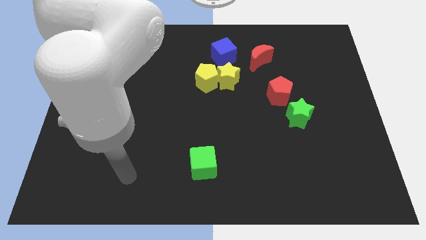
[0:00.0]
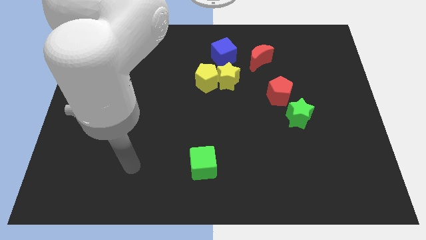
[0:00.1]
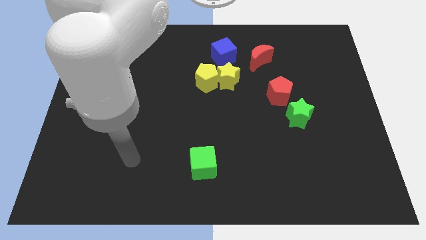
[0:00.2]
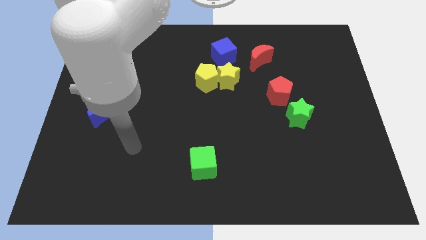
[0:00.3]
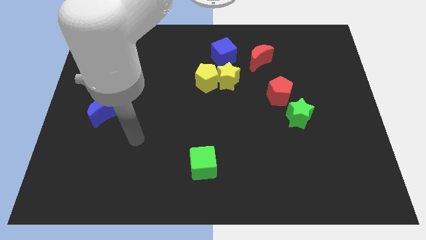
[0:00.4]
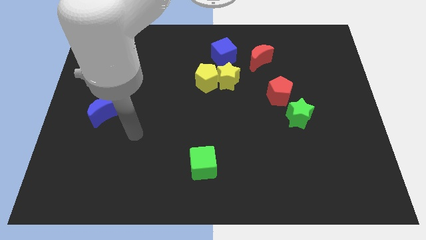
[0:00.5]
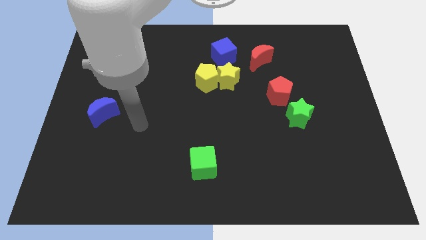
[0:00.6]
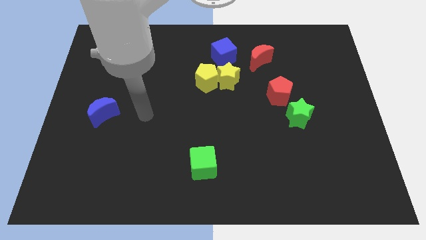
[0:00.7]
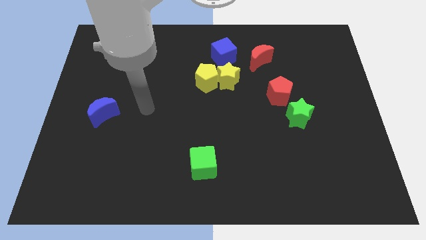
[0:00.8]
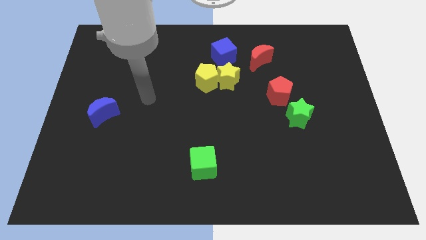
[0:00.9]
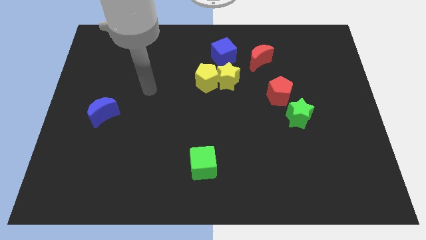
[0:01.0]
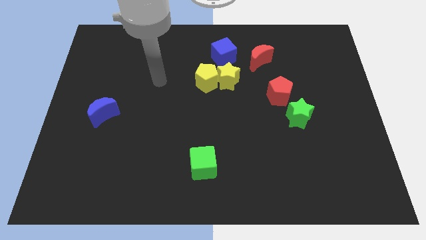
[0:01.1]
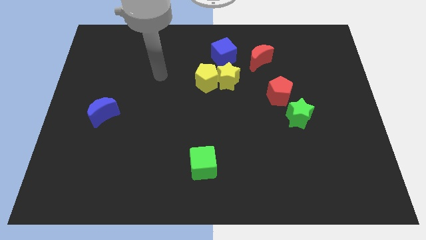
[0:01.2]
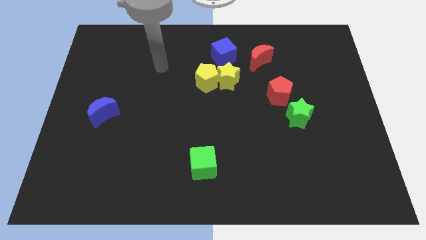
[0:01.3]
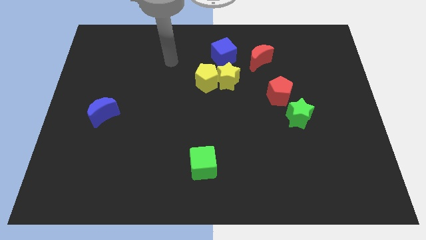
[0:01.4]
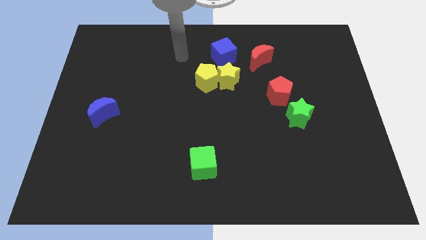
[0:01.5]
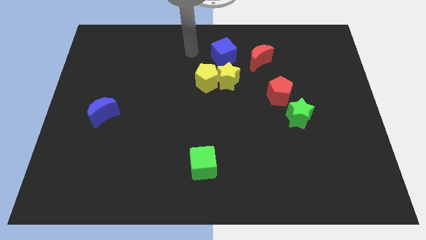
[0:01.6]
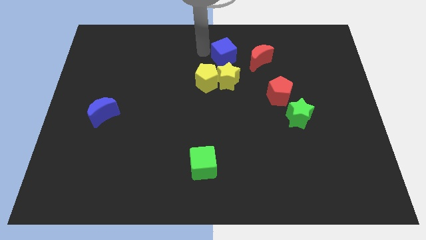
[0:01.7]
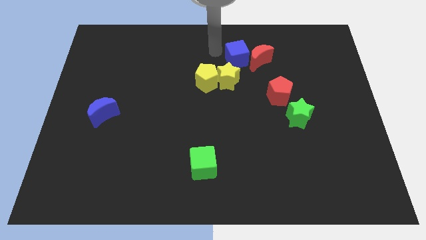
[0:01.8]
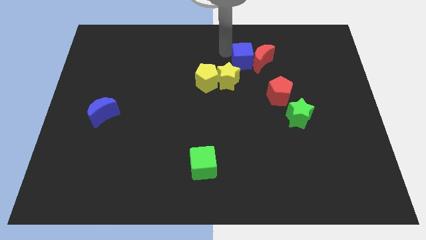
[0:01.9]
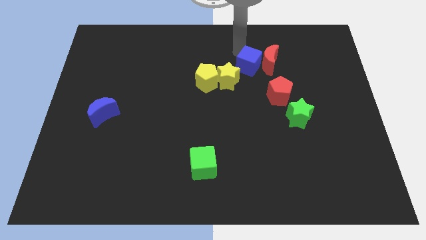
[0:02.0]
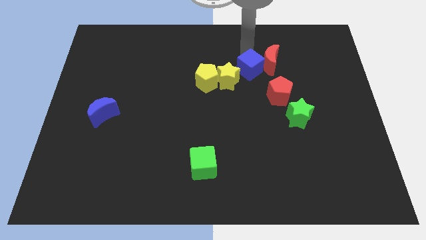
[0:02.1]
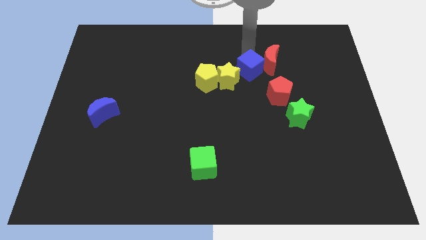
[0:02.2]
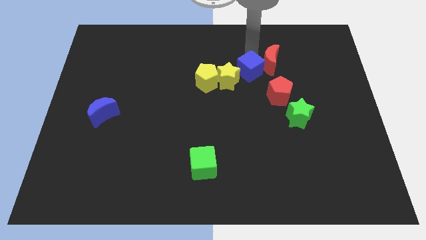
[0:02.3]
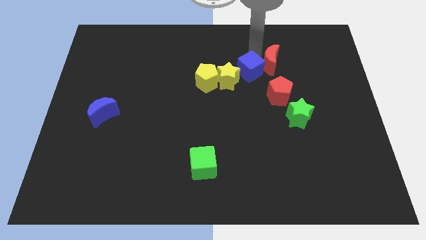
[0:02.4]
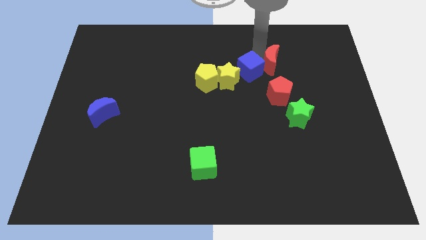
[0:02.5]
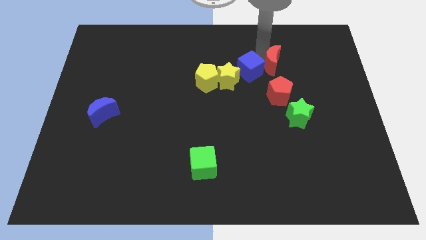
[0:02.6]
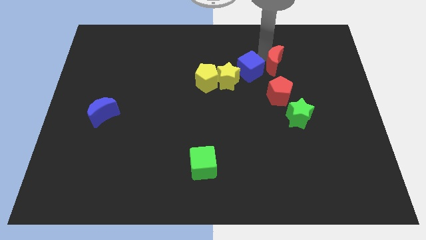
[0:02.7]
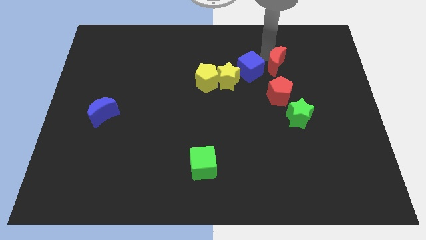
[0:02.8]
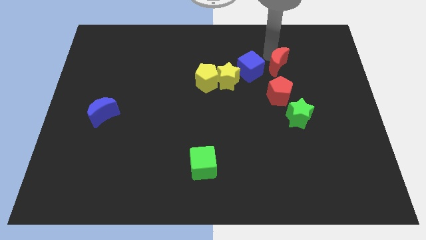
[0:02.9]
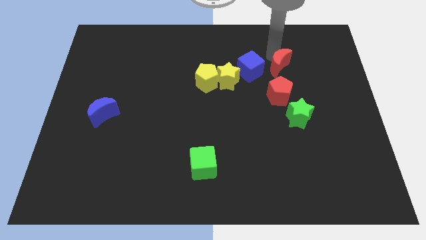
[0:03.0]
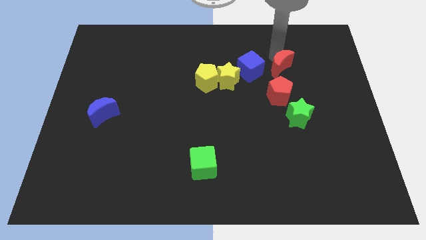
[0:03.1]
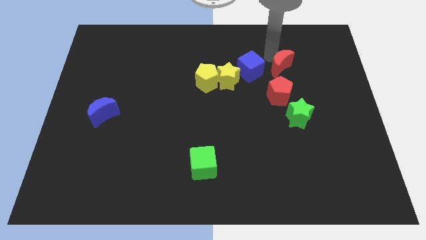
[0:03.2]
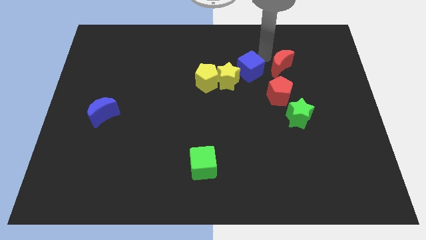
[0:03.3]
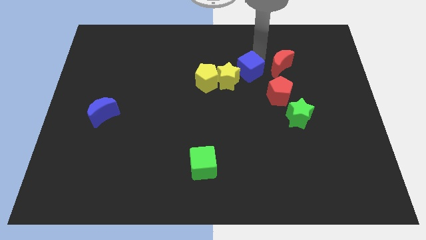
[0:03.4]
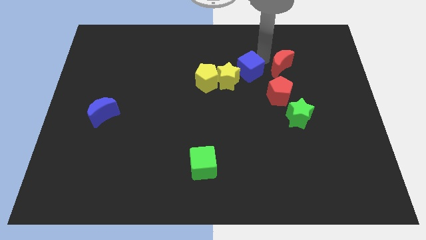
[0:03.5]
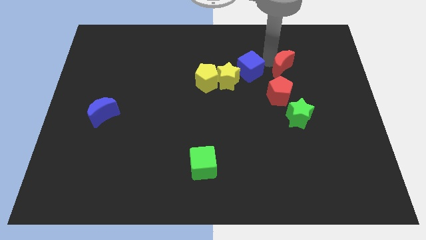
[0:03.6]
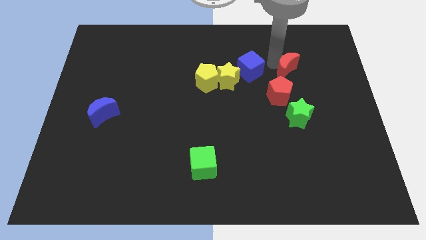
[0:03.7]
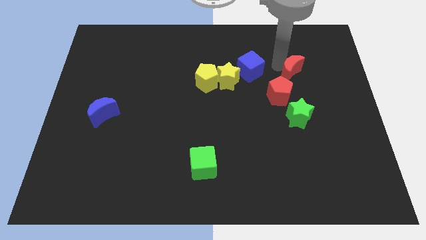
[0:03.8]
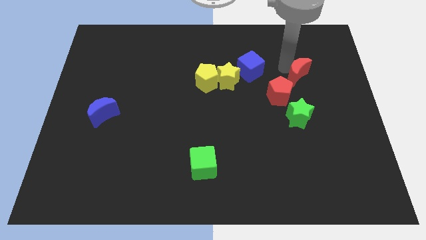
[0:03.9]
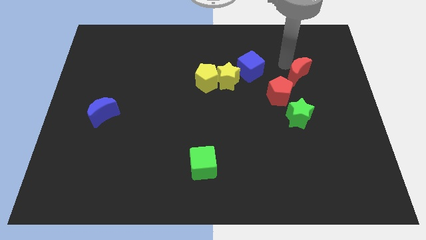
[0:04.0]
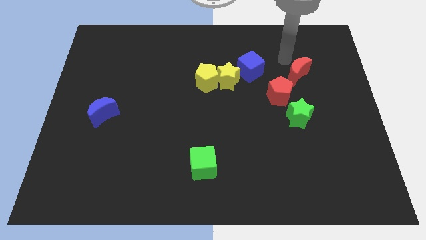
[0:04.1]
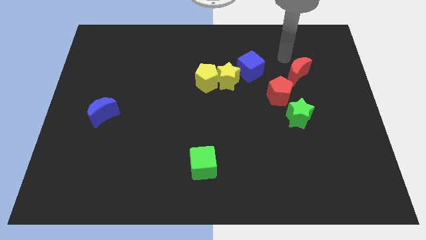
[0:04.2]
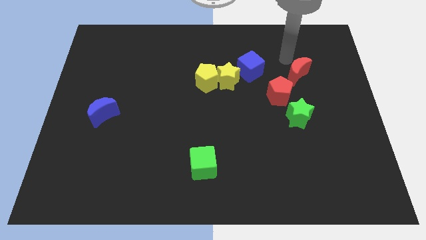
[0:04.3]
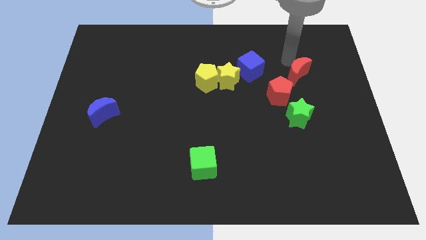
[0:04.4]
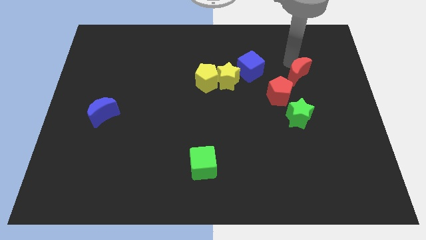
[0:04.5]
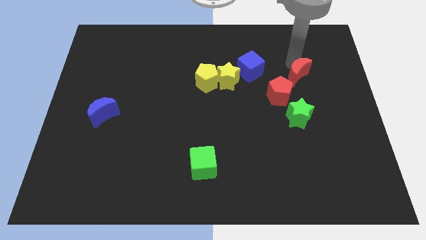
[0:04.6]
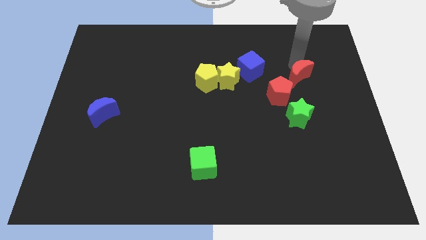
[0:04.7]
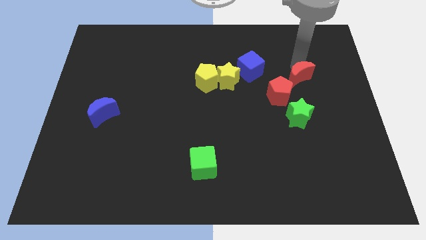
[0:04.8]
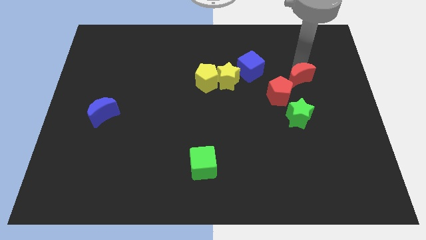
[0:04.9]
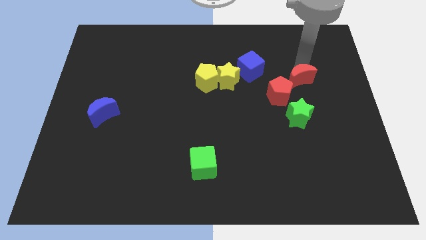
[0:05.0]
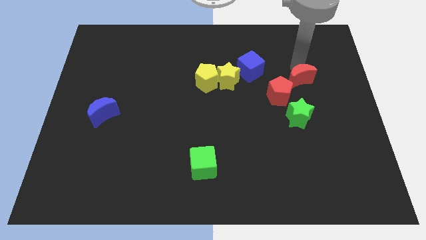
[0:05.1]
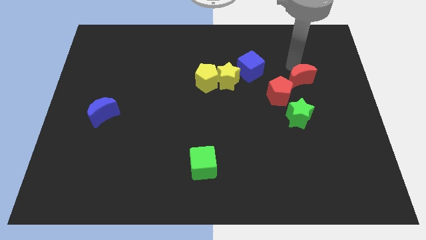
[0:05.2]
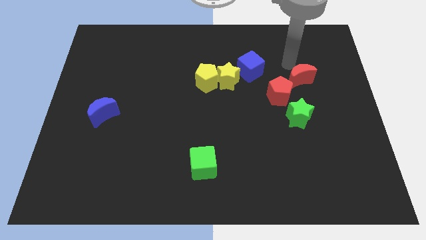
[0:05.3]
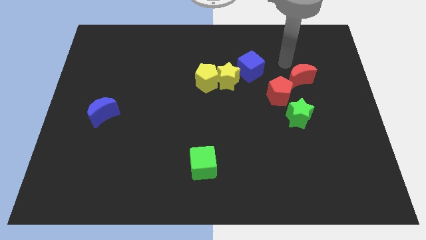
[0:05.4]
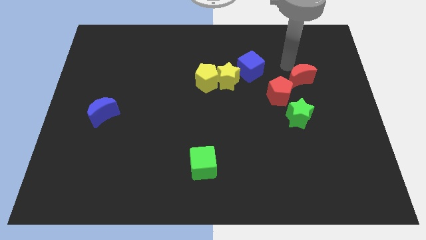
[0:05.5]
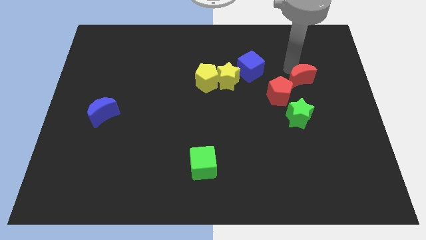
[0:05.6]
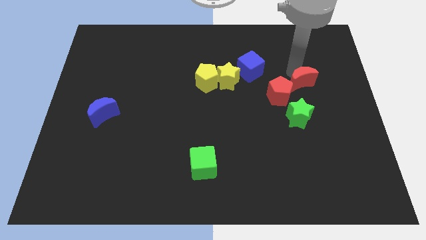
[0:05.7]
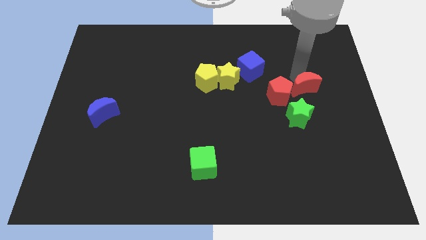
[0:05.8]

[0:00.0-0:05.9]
move the red moon to the top right side of the green star

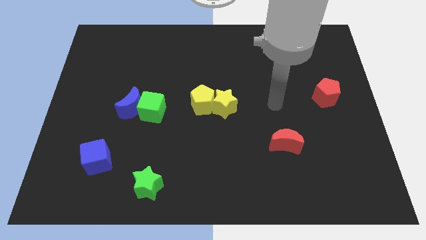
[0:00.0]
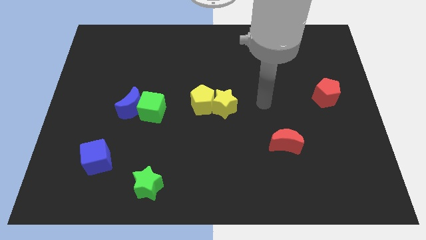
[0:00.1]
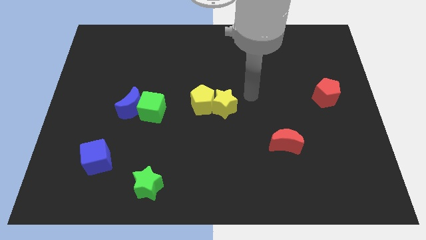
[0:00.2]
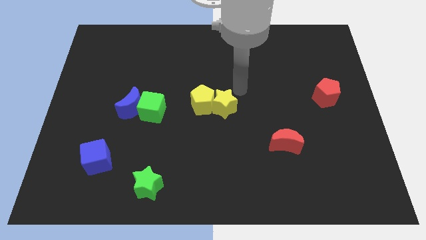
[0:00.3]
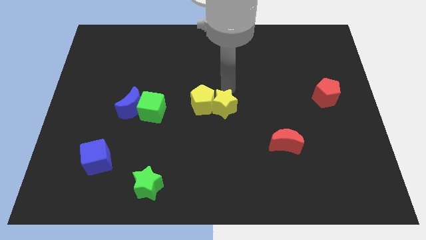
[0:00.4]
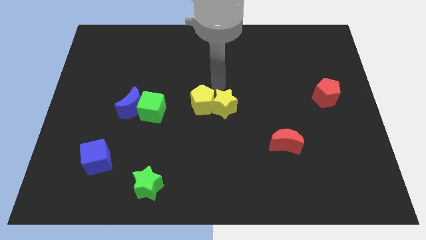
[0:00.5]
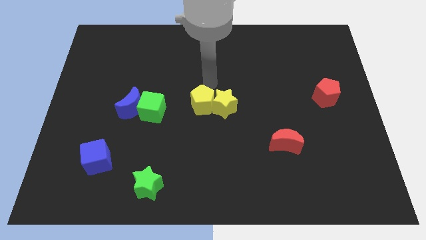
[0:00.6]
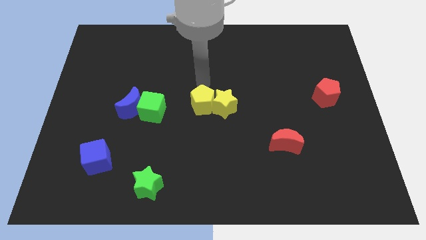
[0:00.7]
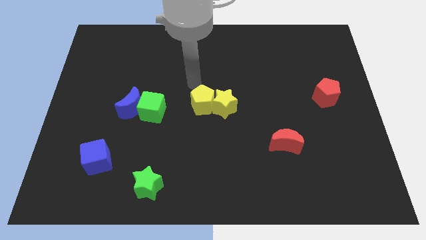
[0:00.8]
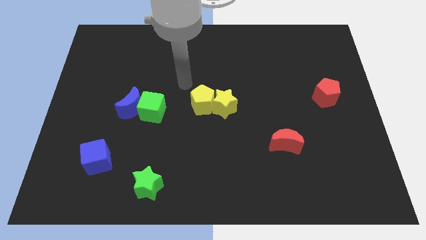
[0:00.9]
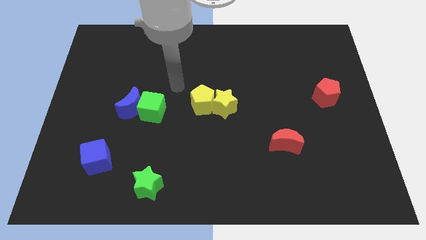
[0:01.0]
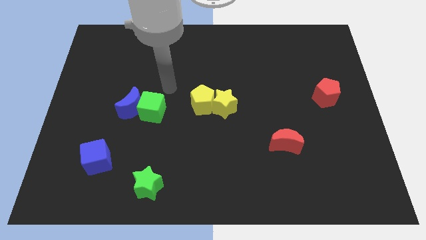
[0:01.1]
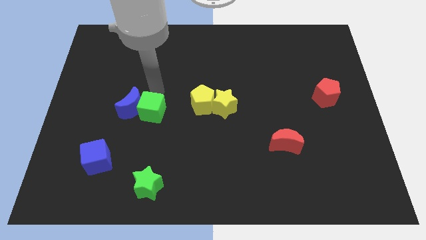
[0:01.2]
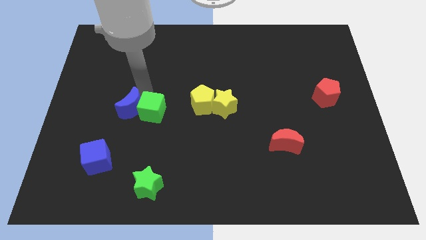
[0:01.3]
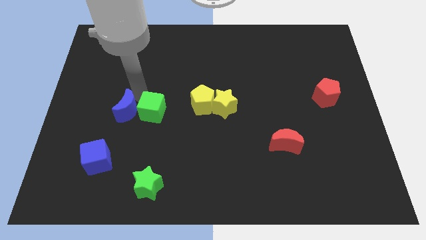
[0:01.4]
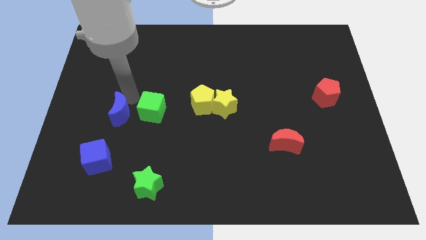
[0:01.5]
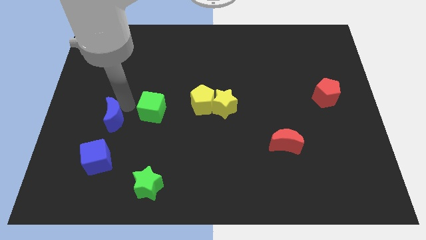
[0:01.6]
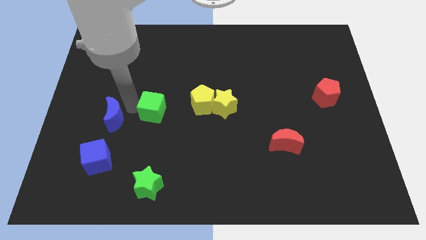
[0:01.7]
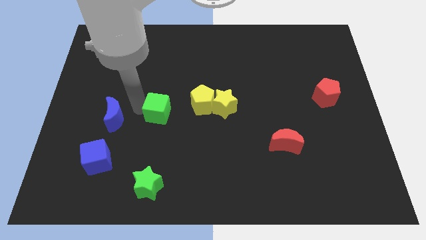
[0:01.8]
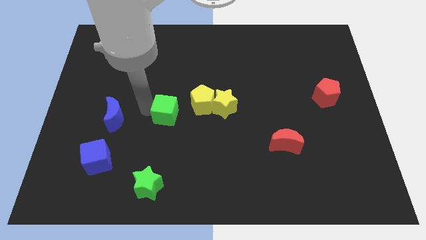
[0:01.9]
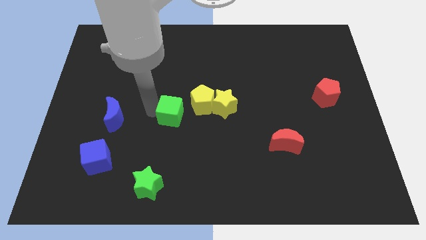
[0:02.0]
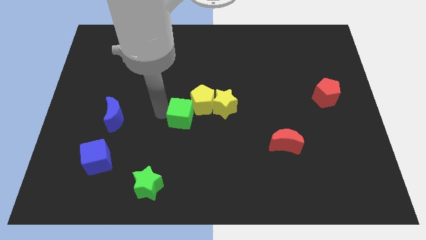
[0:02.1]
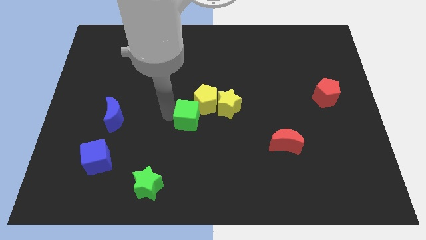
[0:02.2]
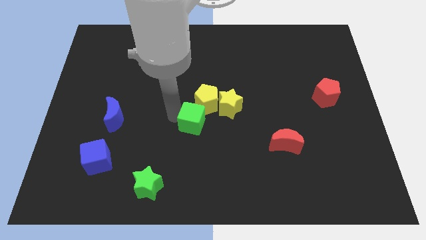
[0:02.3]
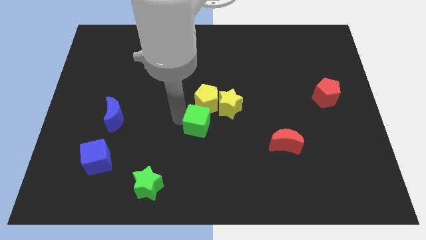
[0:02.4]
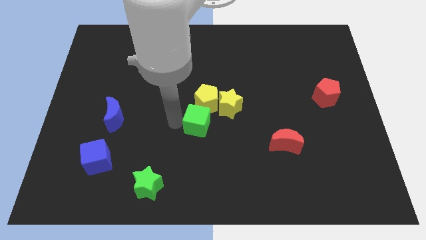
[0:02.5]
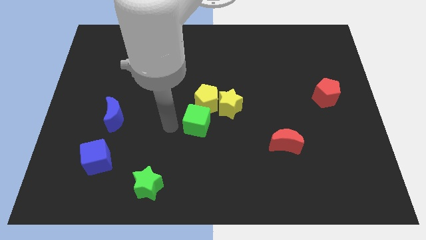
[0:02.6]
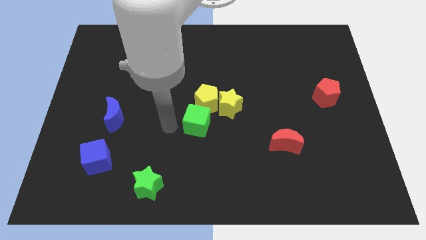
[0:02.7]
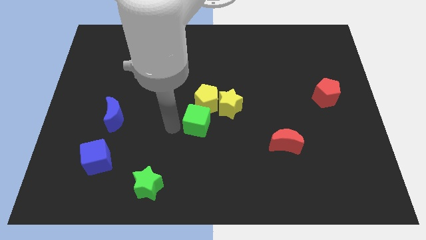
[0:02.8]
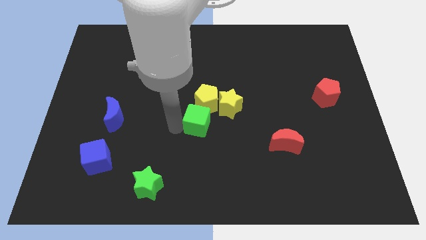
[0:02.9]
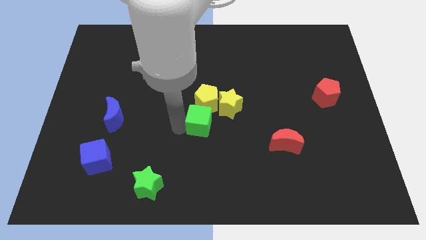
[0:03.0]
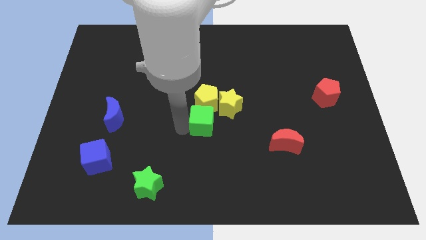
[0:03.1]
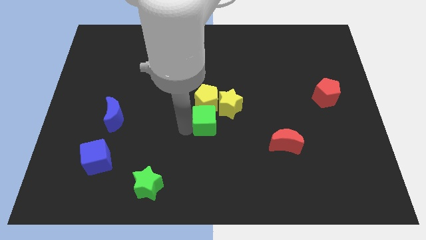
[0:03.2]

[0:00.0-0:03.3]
push the green cube to the bottom right side of the yellow pentagon
